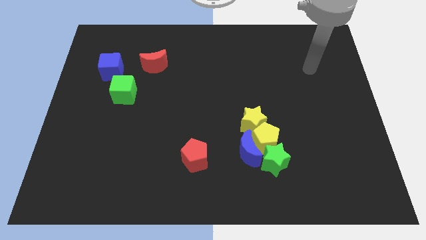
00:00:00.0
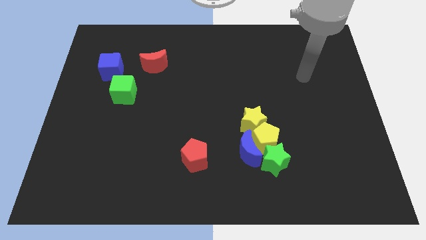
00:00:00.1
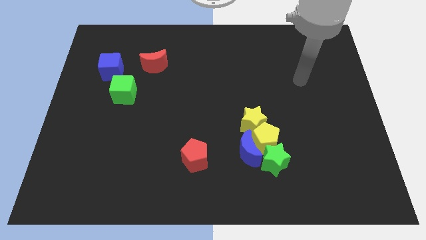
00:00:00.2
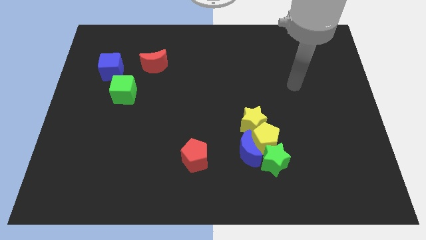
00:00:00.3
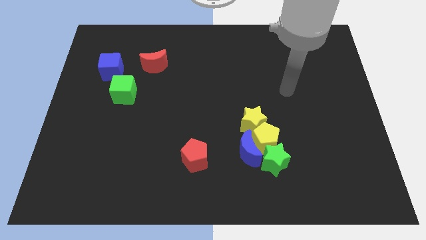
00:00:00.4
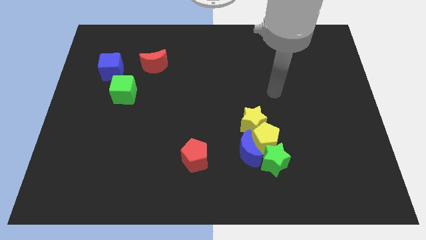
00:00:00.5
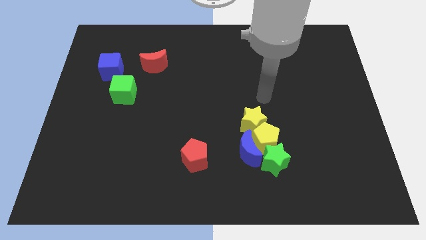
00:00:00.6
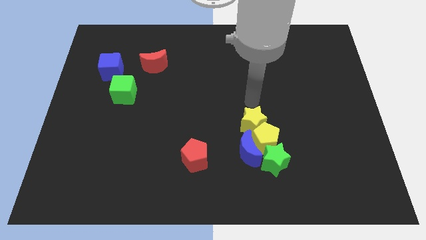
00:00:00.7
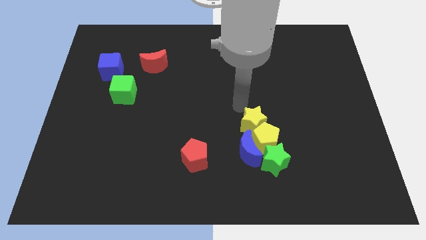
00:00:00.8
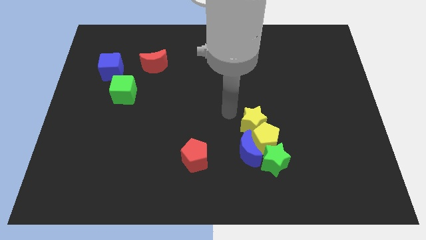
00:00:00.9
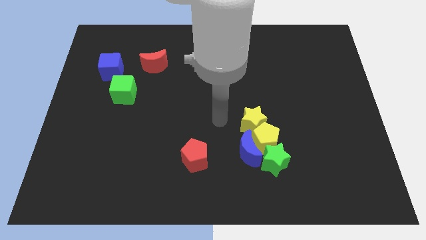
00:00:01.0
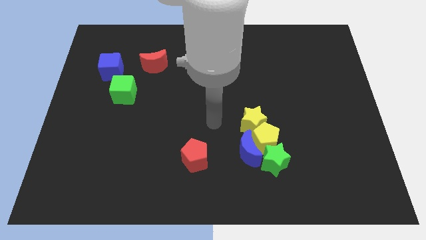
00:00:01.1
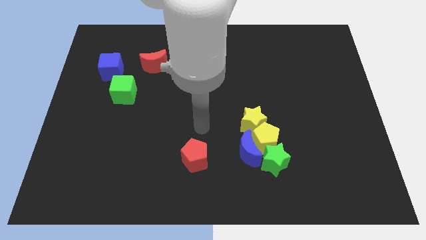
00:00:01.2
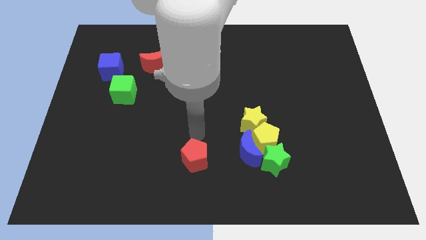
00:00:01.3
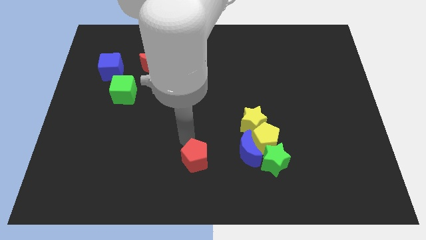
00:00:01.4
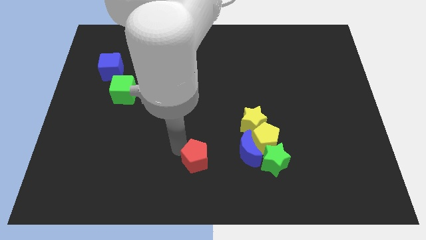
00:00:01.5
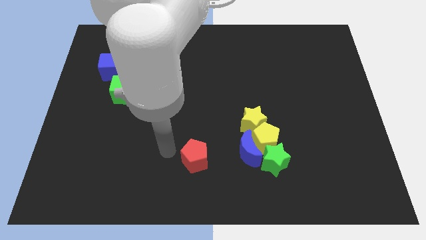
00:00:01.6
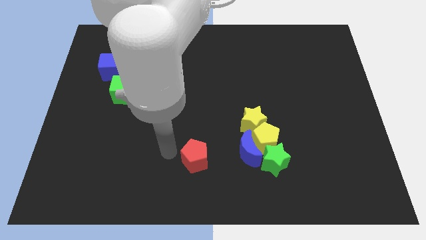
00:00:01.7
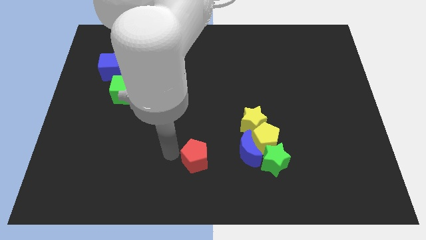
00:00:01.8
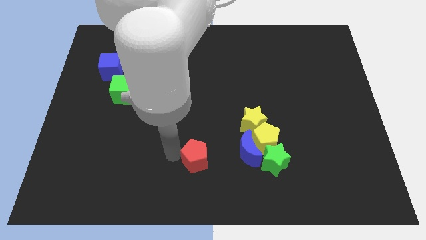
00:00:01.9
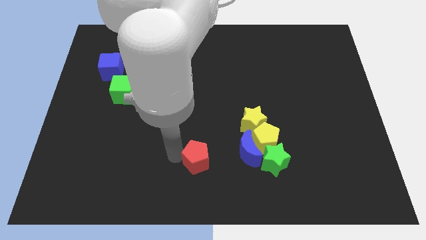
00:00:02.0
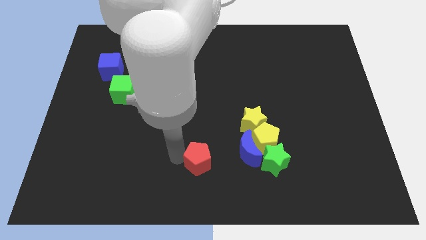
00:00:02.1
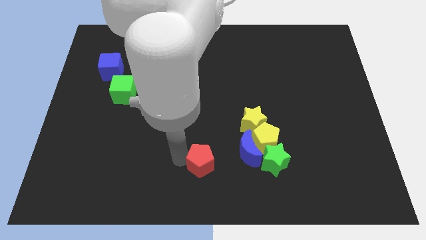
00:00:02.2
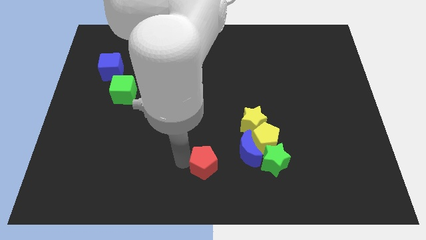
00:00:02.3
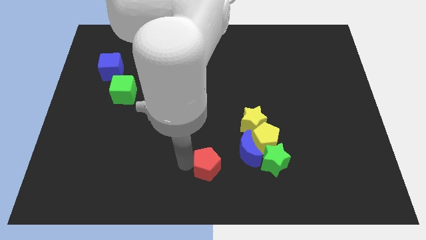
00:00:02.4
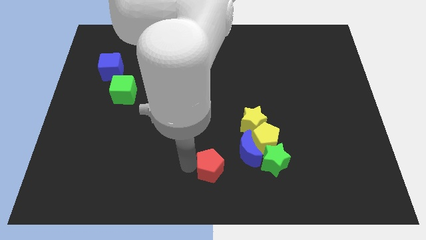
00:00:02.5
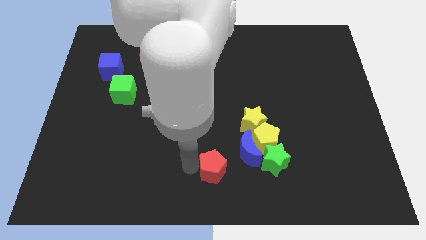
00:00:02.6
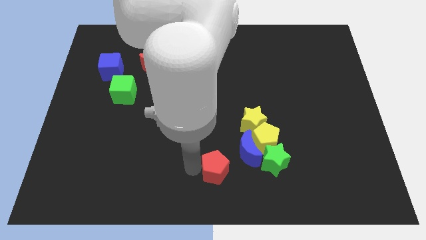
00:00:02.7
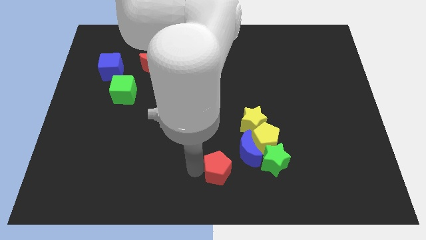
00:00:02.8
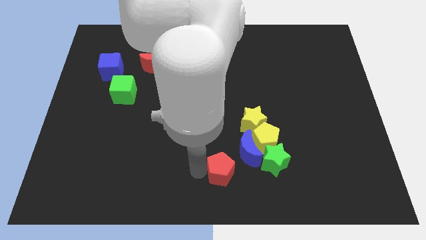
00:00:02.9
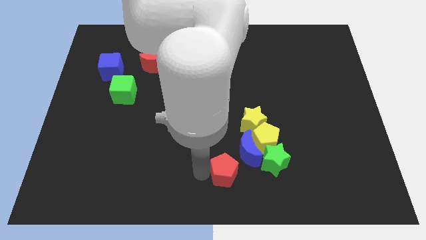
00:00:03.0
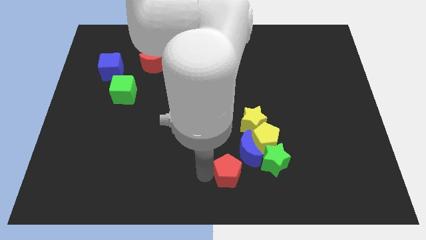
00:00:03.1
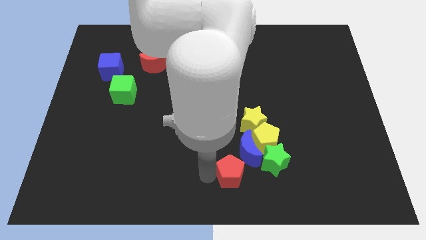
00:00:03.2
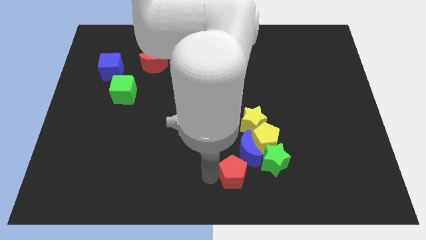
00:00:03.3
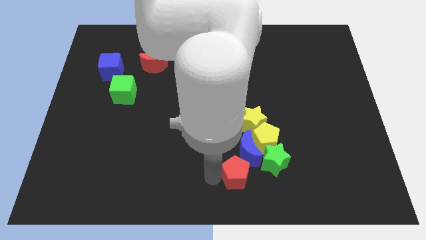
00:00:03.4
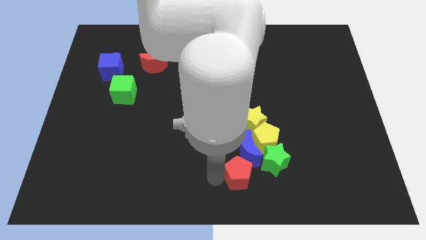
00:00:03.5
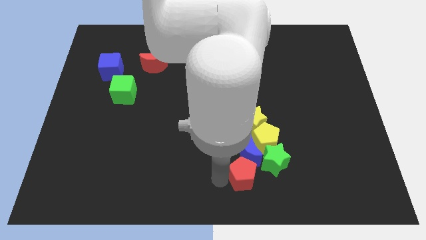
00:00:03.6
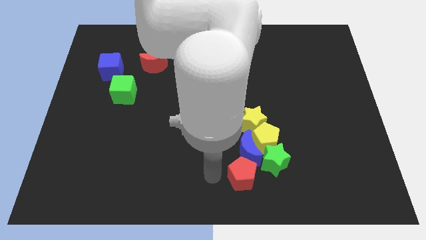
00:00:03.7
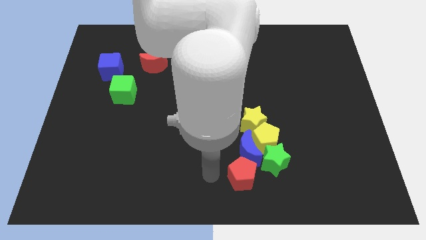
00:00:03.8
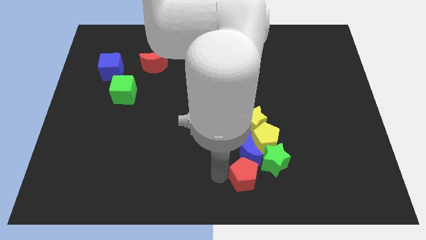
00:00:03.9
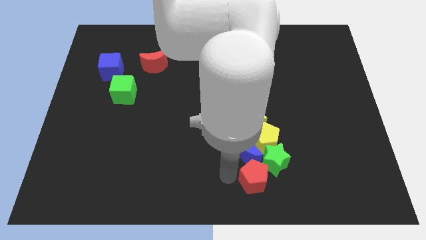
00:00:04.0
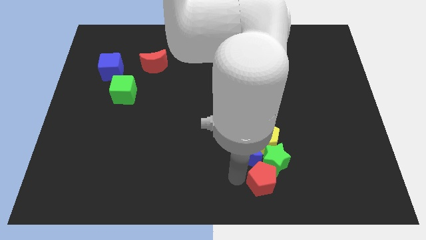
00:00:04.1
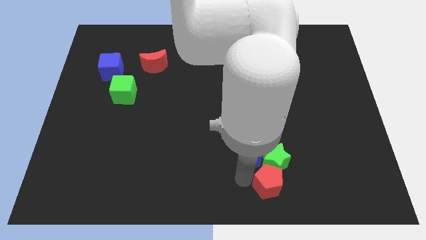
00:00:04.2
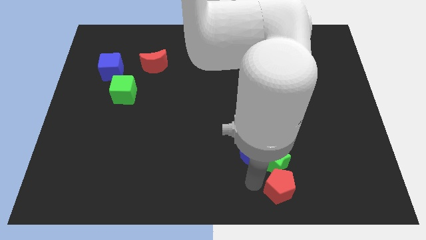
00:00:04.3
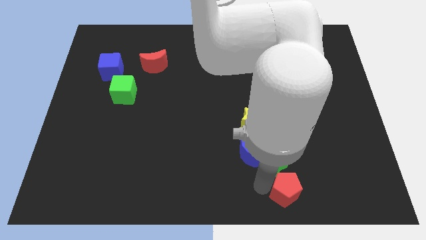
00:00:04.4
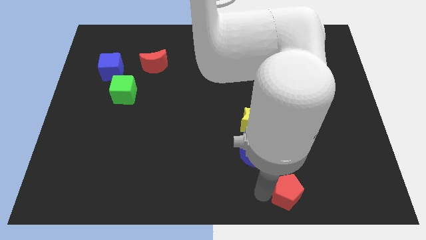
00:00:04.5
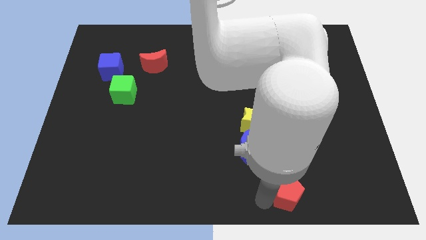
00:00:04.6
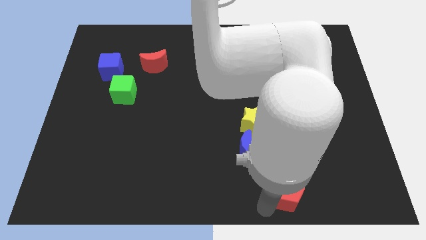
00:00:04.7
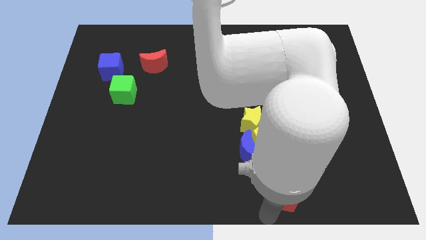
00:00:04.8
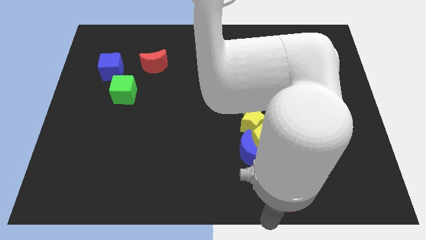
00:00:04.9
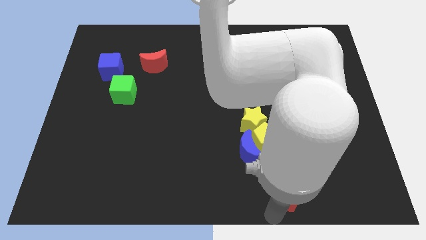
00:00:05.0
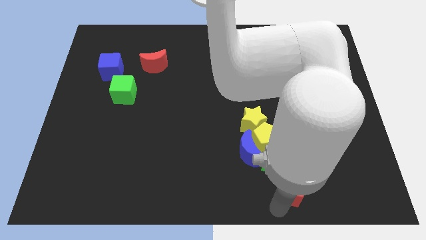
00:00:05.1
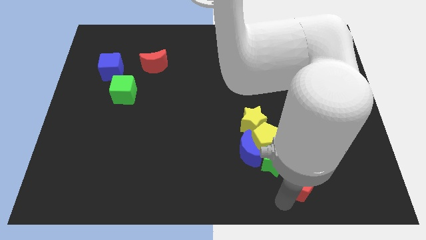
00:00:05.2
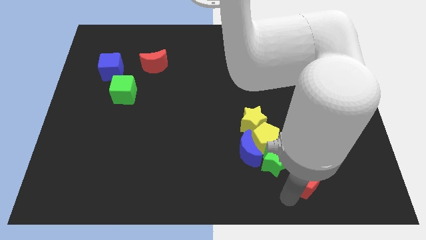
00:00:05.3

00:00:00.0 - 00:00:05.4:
push the red pentagon right

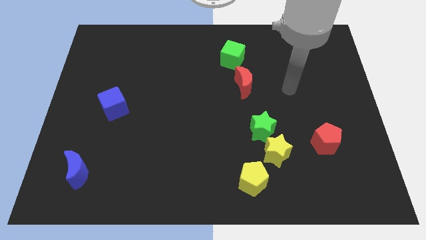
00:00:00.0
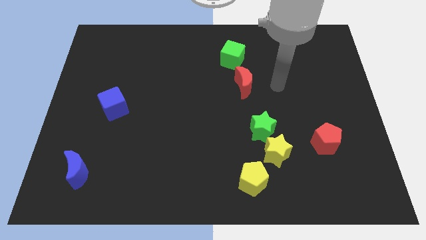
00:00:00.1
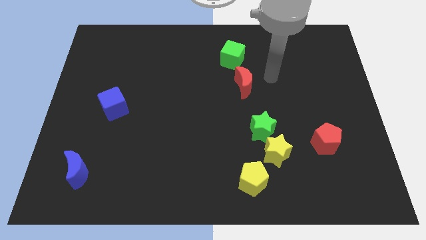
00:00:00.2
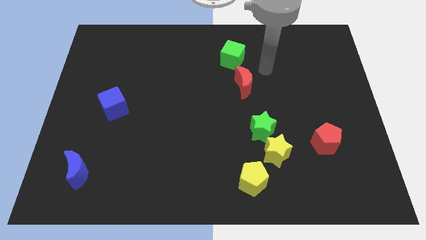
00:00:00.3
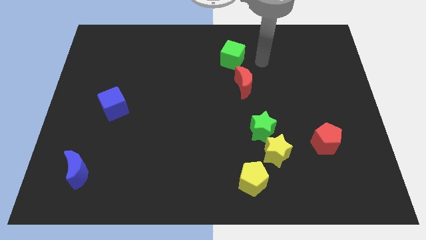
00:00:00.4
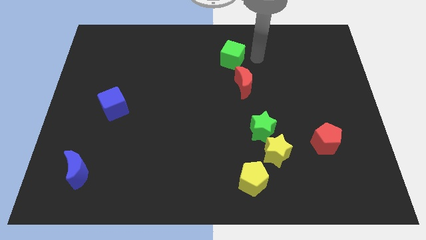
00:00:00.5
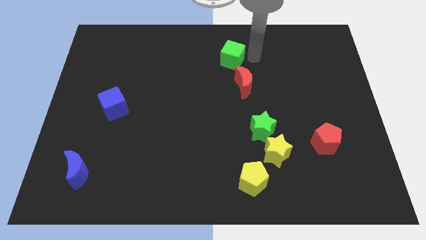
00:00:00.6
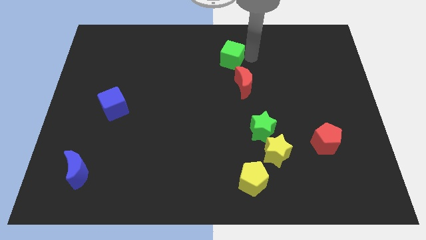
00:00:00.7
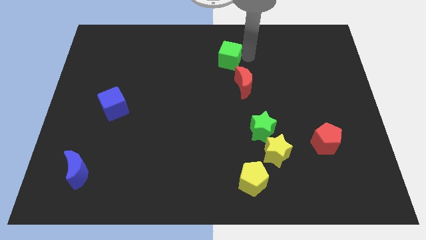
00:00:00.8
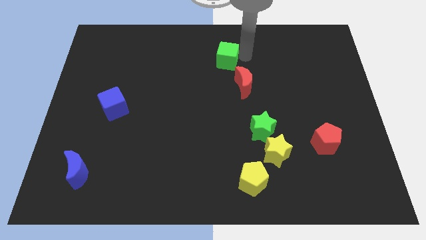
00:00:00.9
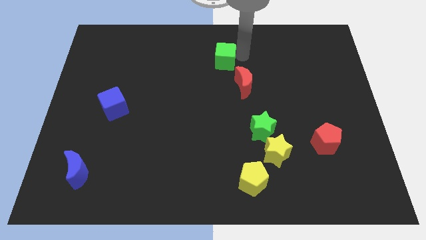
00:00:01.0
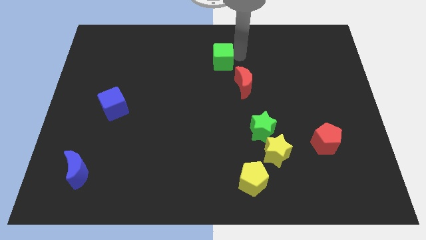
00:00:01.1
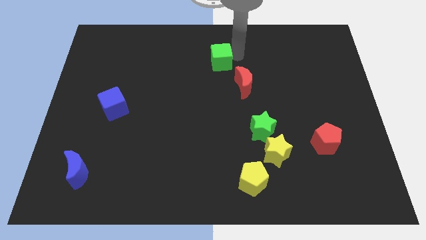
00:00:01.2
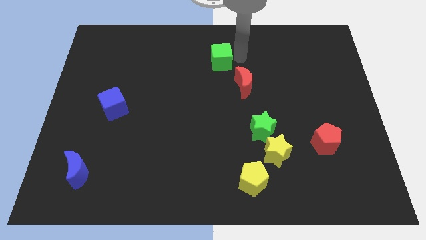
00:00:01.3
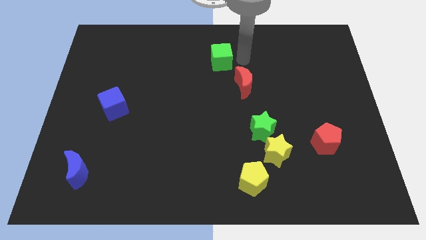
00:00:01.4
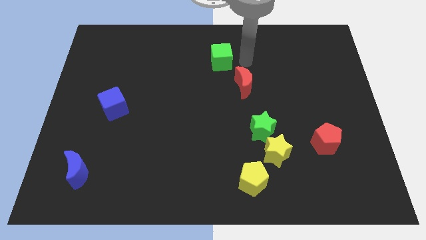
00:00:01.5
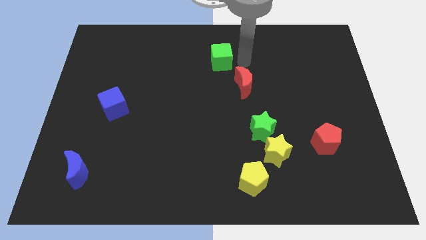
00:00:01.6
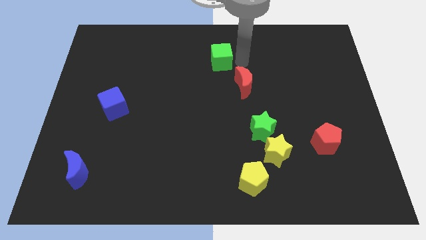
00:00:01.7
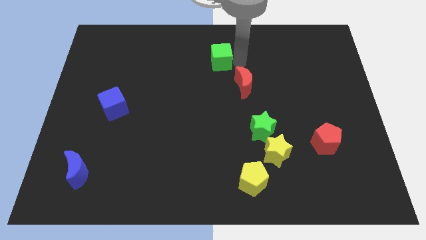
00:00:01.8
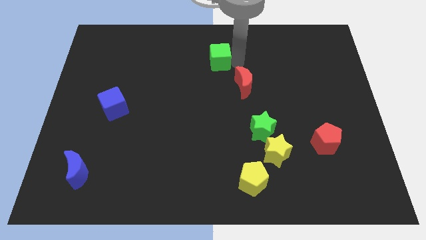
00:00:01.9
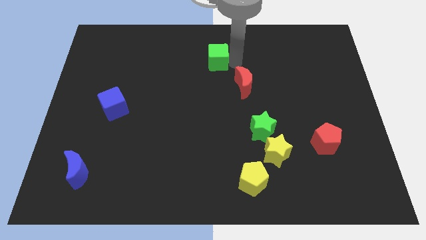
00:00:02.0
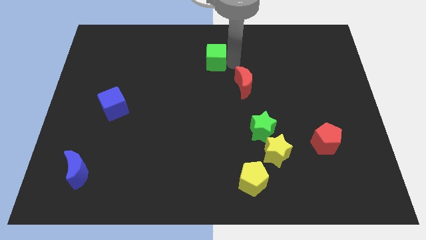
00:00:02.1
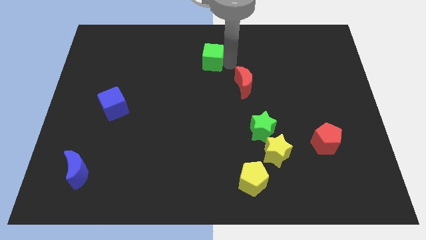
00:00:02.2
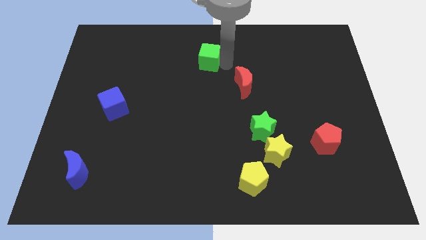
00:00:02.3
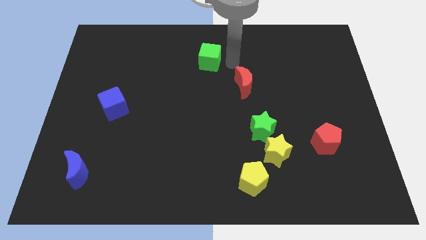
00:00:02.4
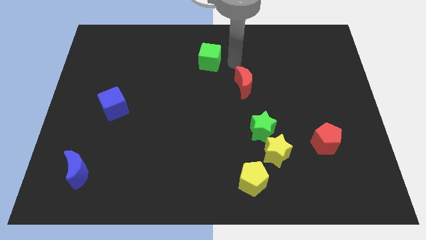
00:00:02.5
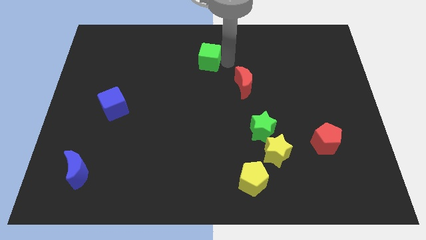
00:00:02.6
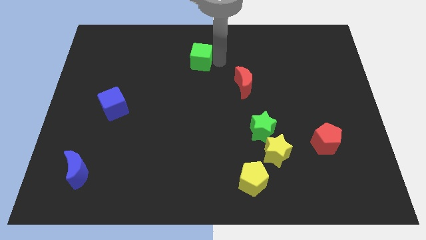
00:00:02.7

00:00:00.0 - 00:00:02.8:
slightly slide the green cube to the left
